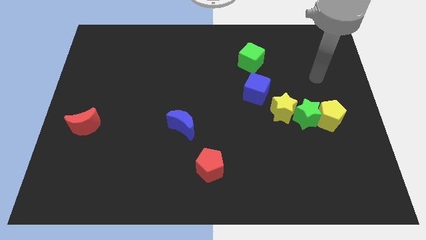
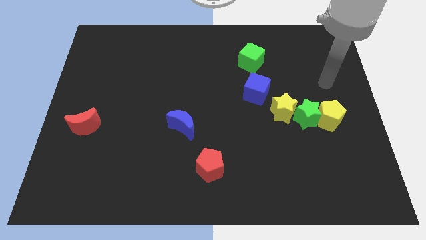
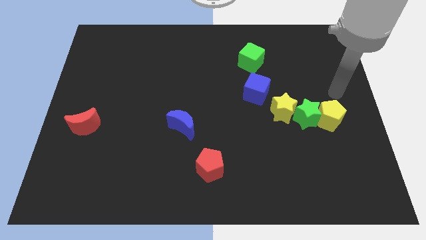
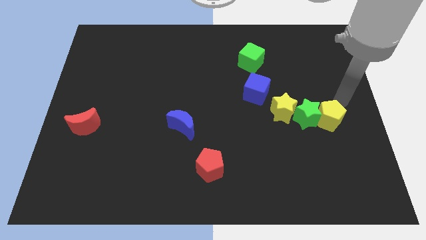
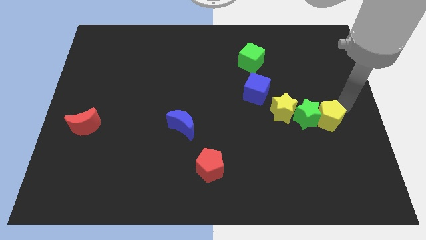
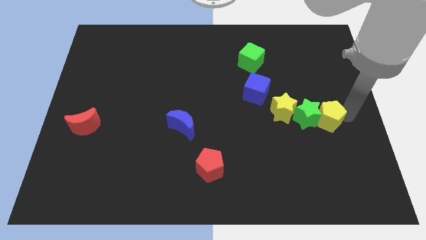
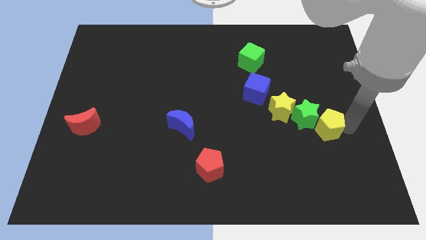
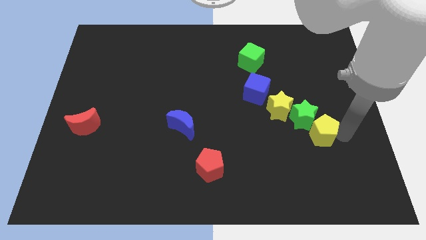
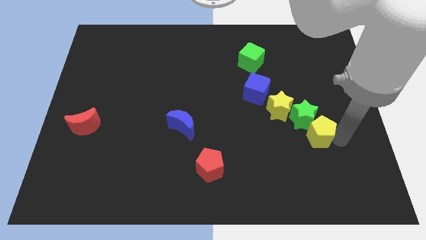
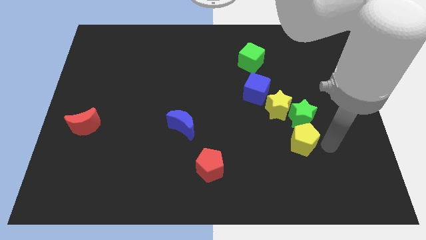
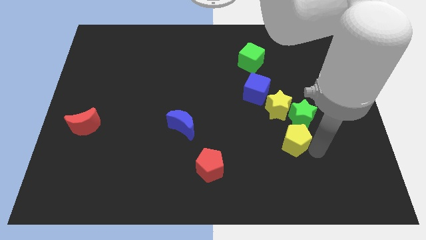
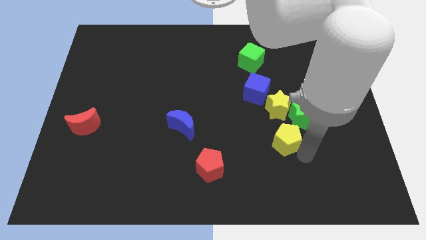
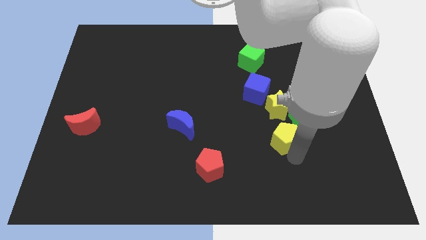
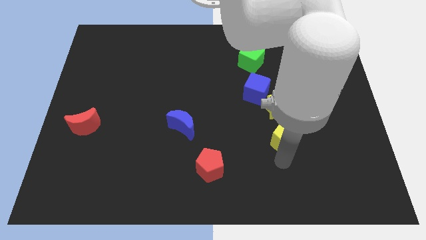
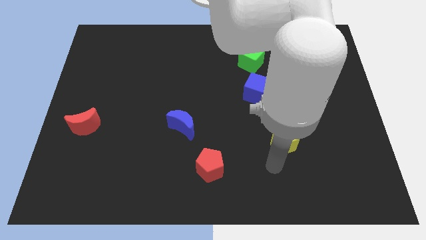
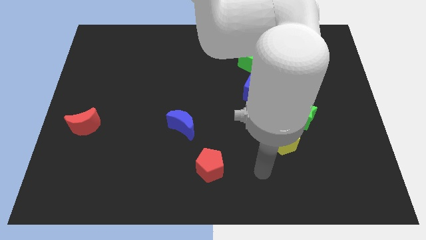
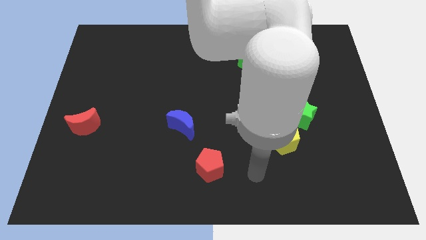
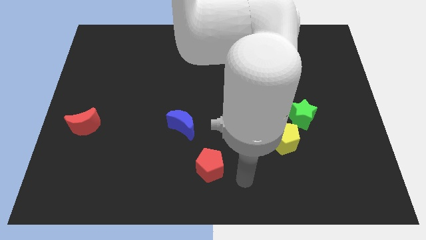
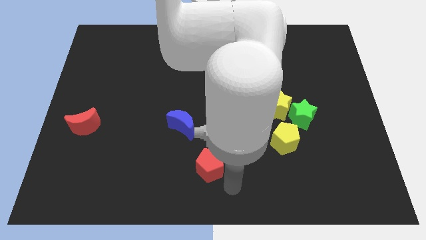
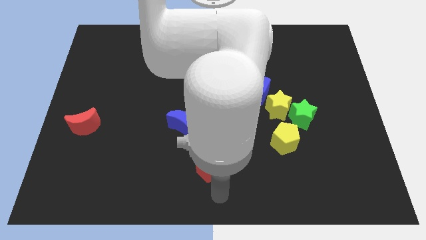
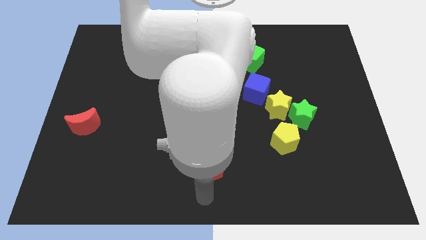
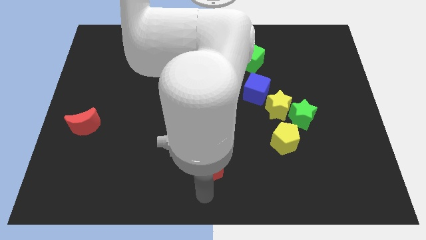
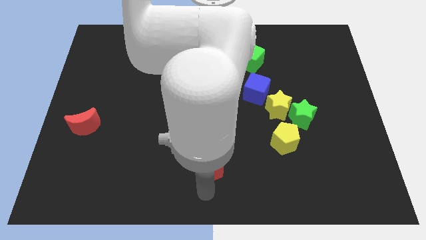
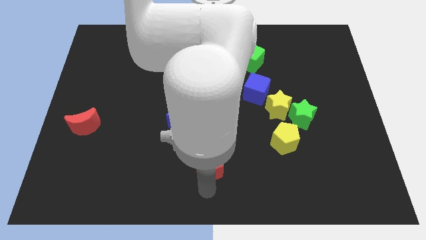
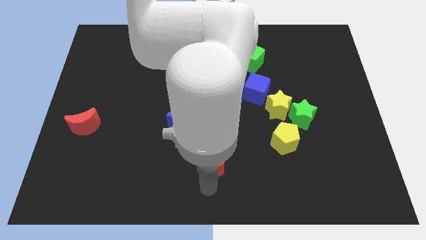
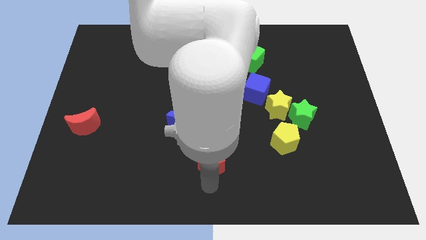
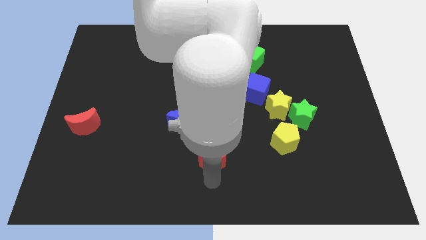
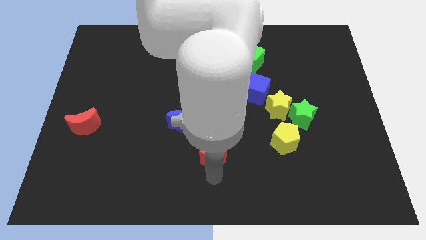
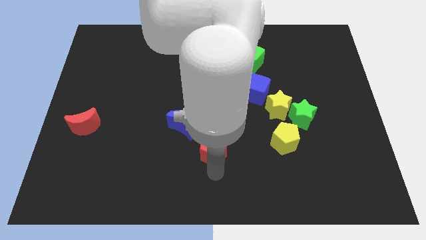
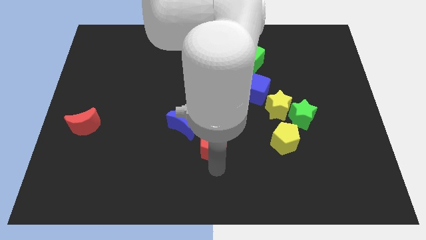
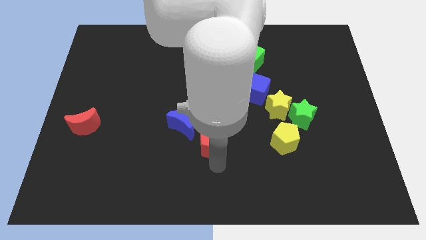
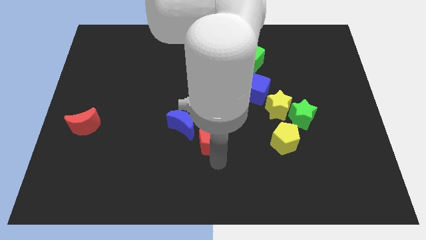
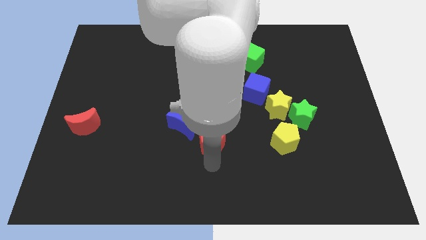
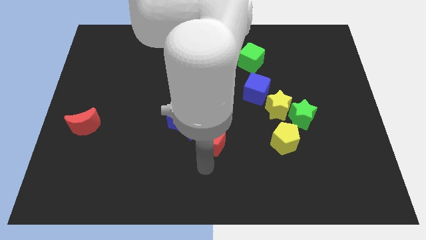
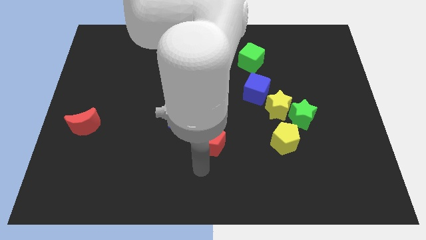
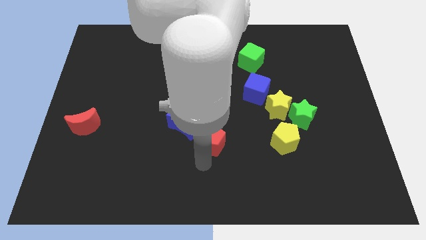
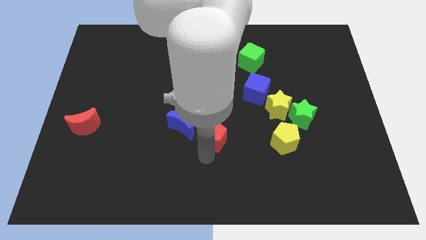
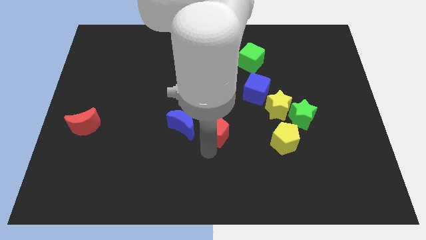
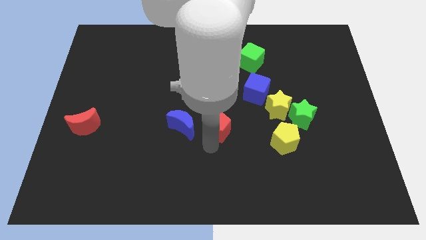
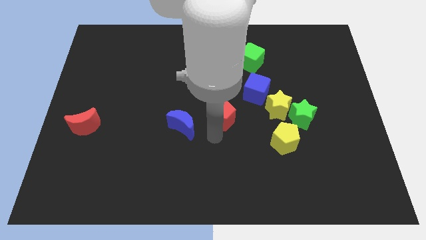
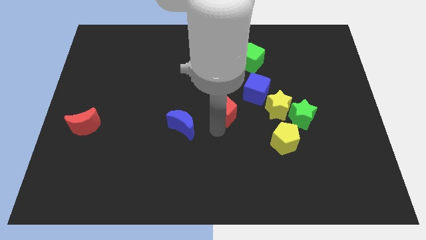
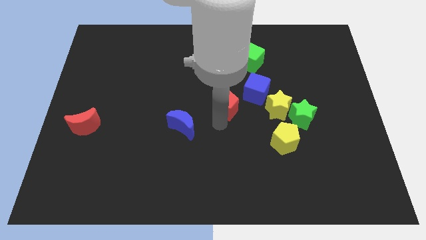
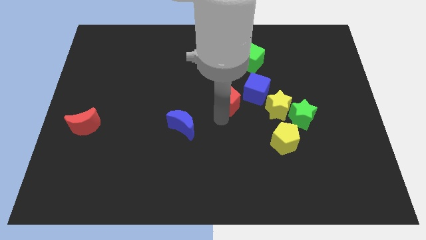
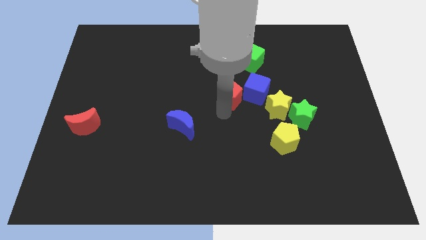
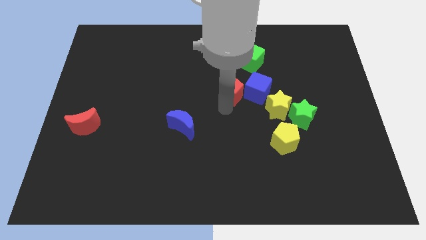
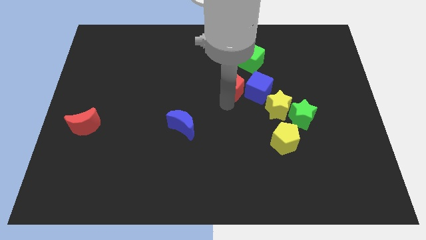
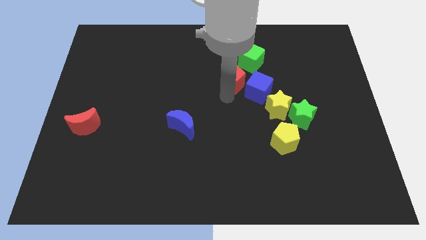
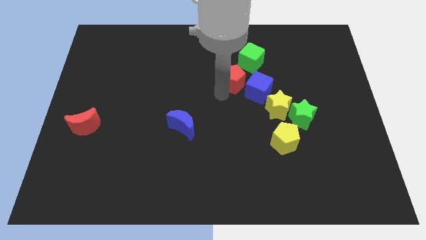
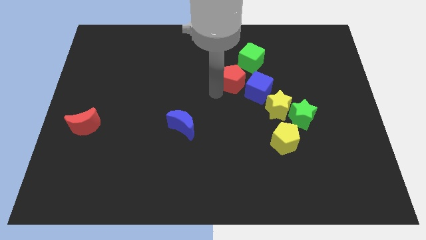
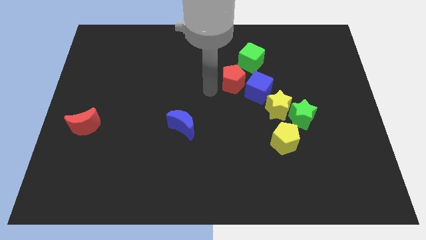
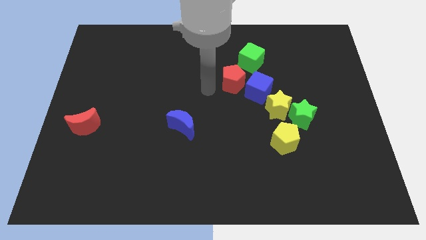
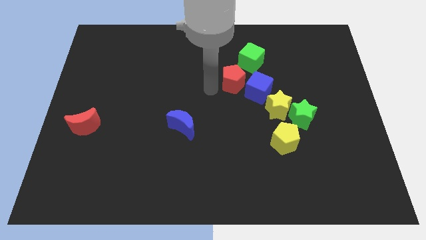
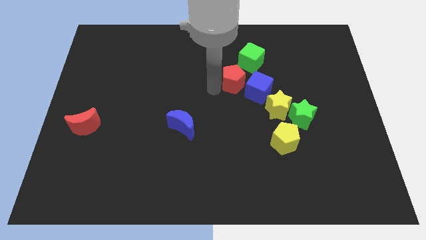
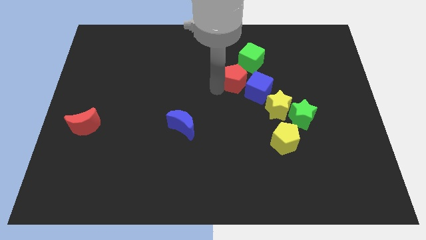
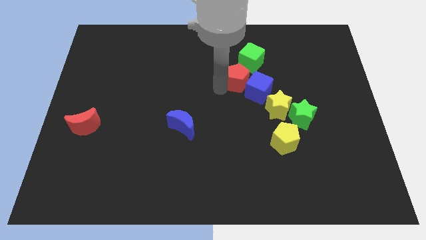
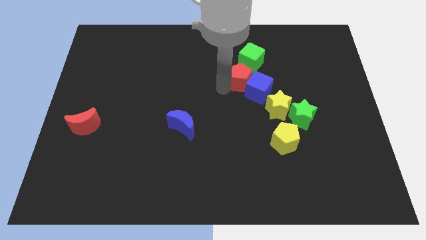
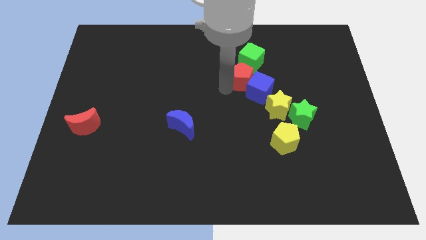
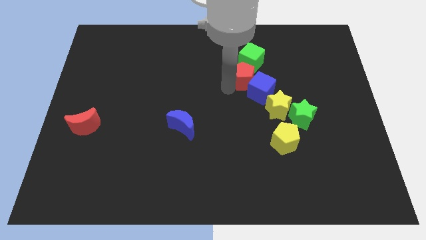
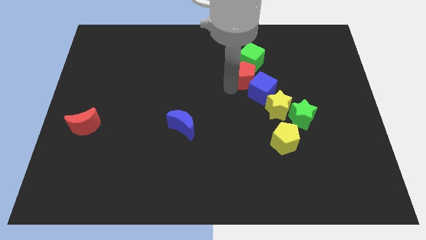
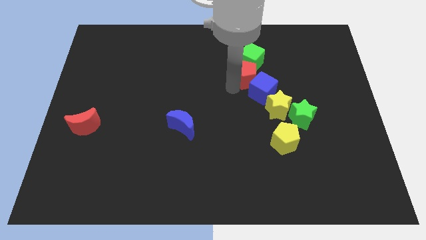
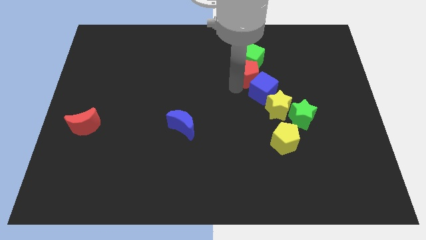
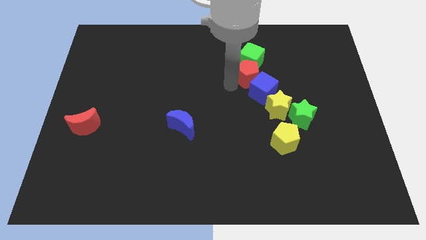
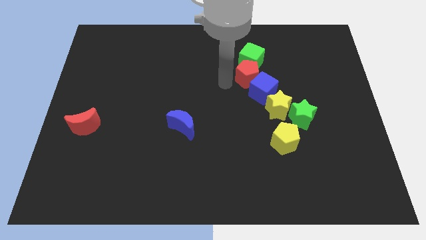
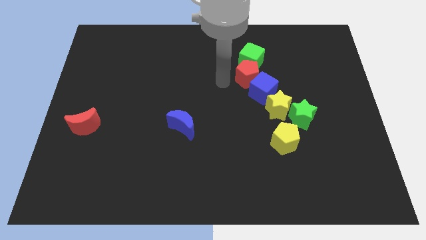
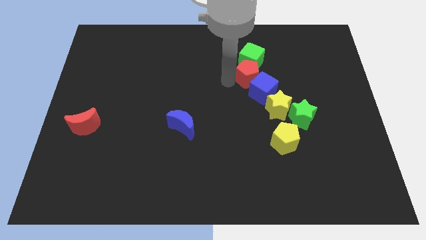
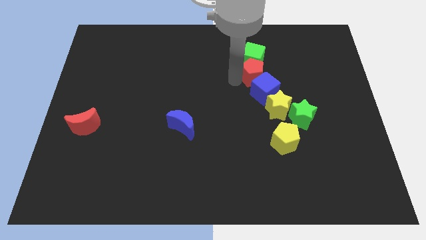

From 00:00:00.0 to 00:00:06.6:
move the red pentagon up and to the right

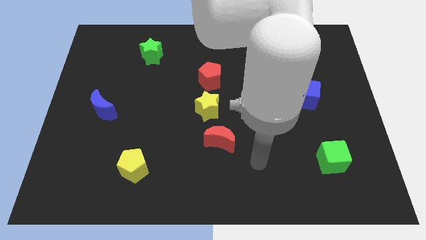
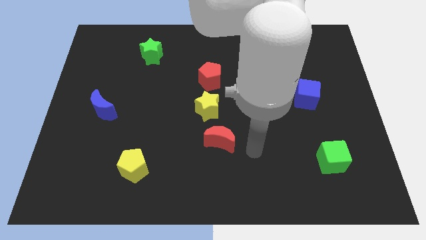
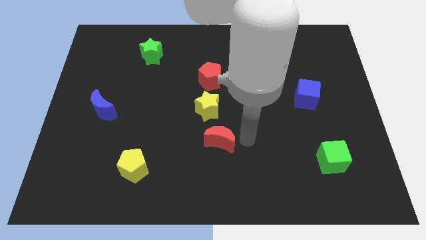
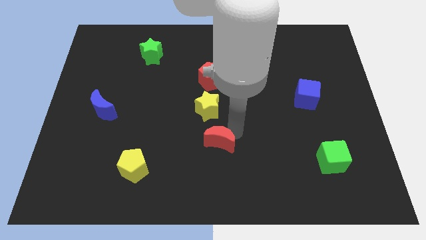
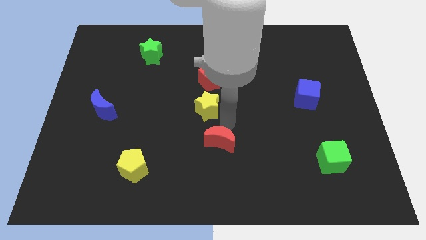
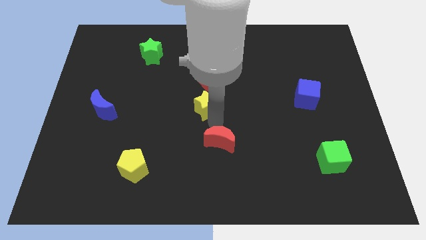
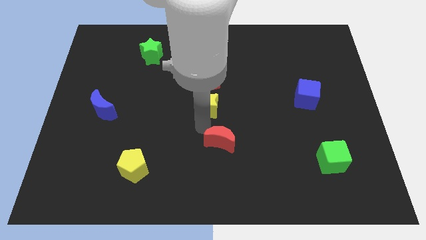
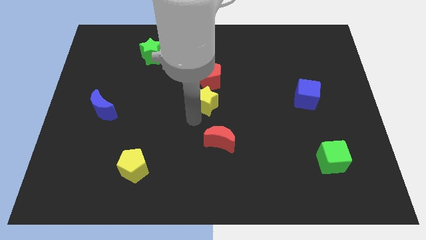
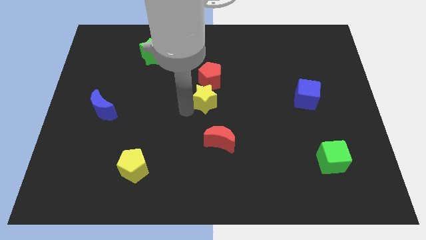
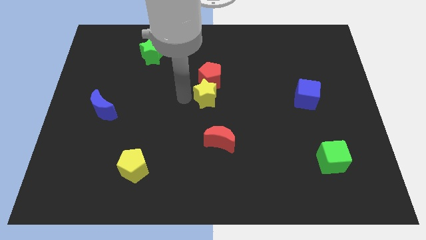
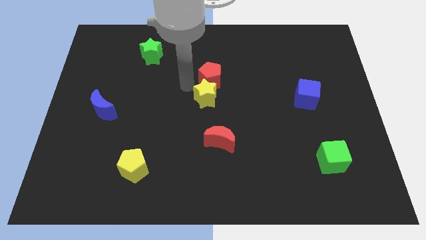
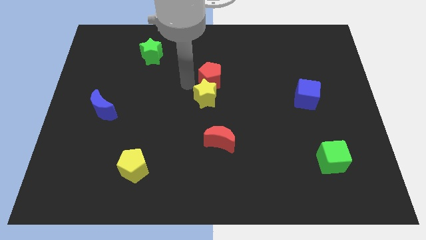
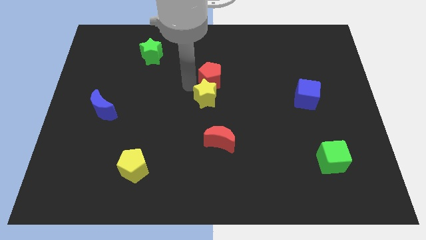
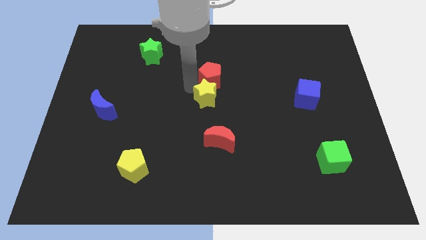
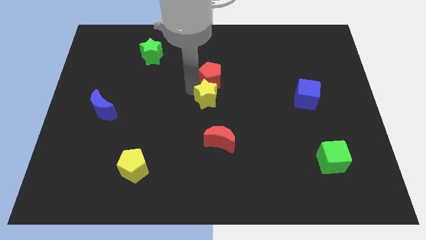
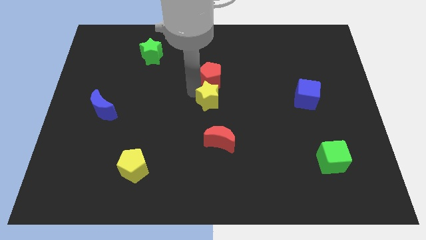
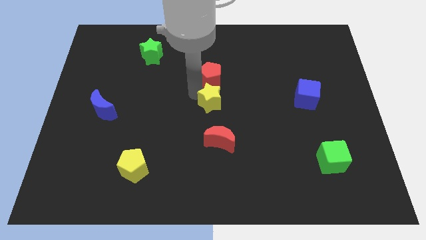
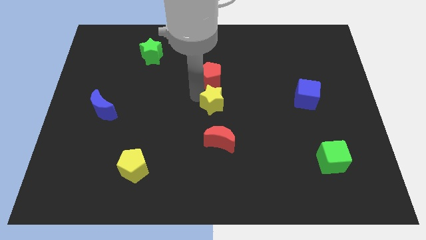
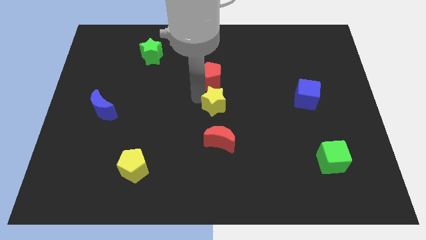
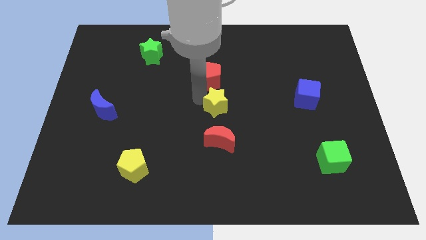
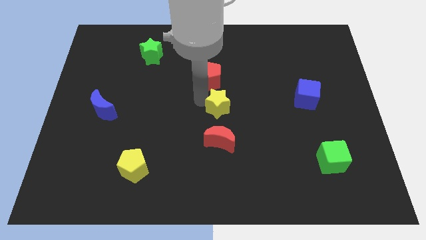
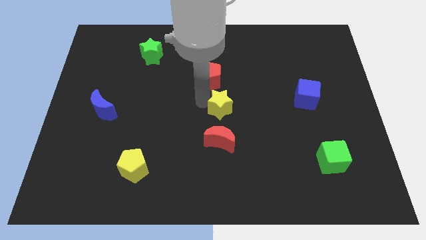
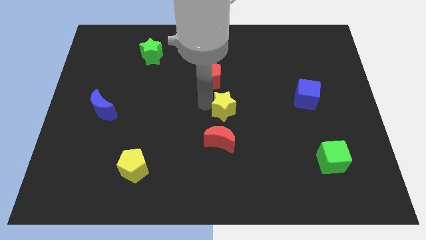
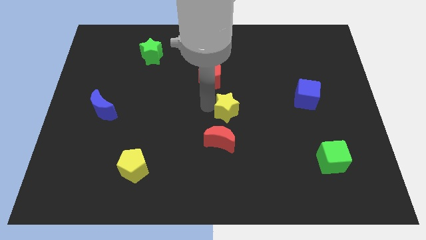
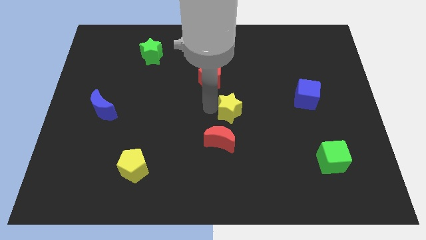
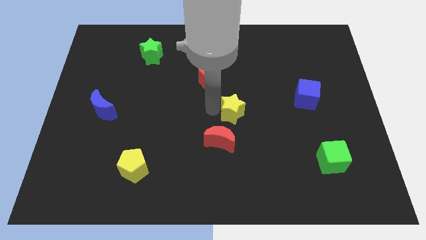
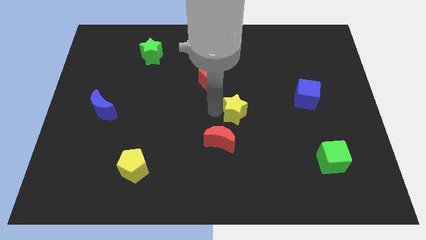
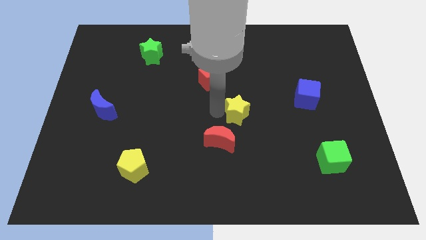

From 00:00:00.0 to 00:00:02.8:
slide the yellow star to the right a little bit
